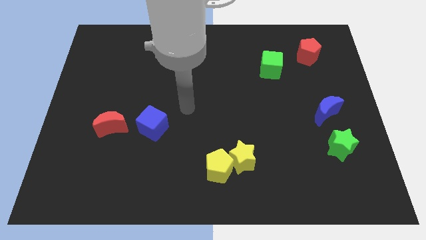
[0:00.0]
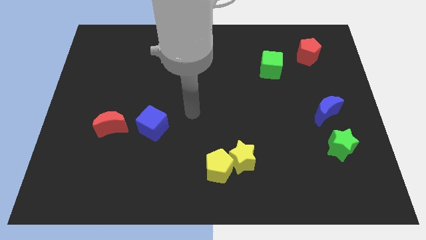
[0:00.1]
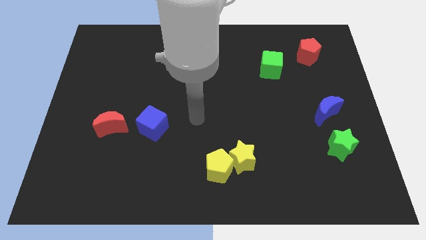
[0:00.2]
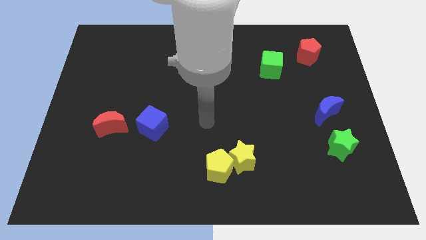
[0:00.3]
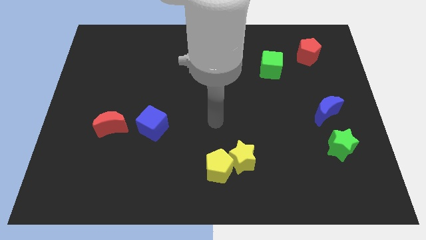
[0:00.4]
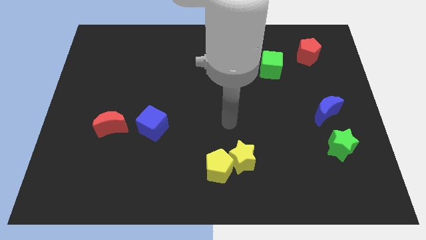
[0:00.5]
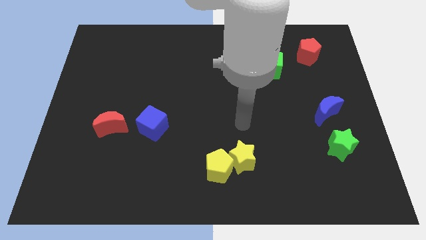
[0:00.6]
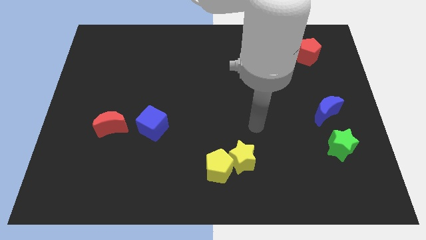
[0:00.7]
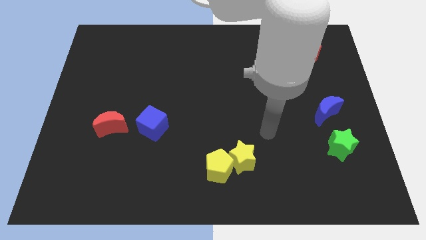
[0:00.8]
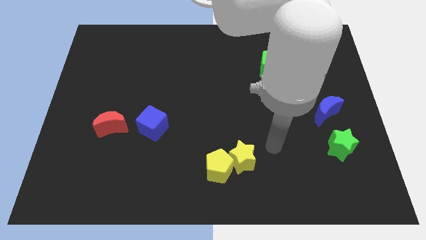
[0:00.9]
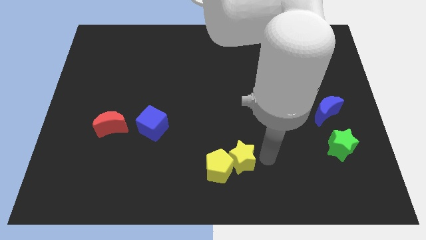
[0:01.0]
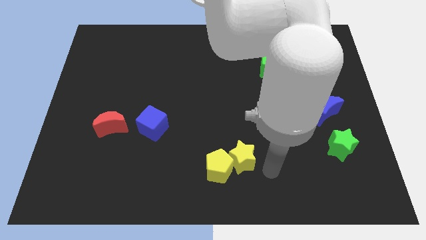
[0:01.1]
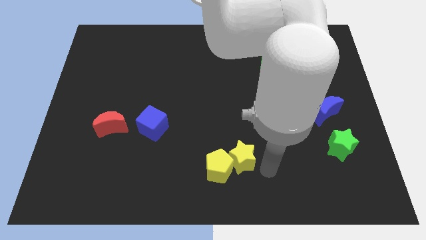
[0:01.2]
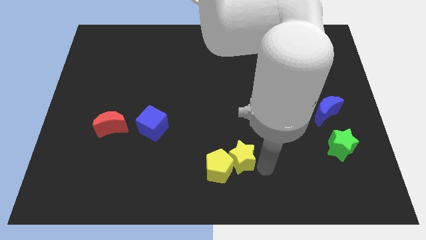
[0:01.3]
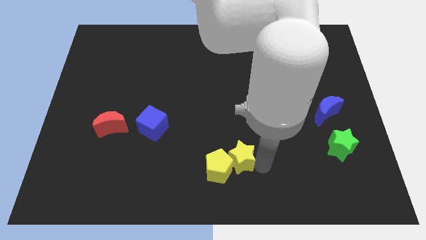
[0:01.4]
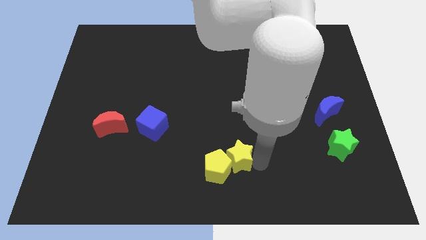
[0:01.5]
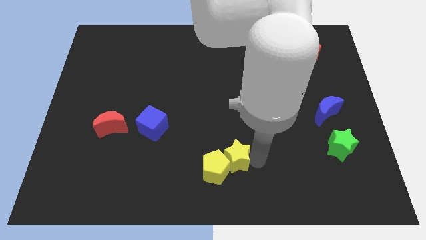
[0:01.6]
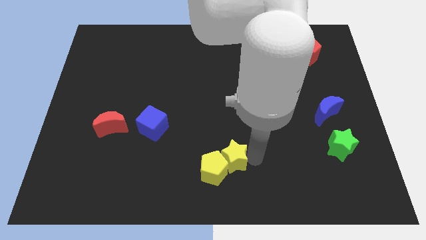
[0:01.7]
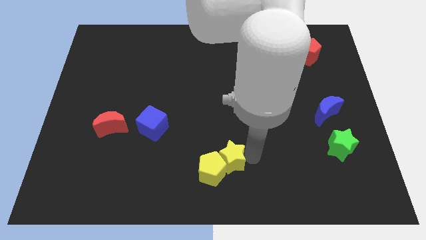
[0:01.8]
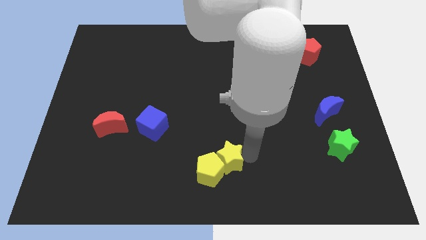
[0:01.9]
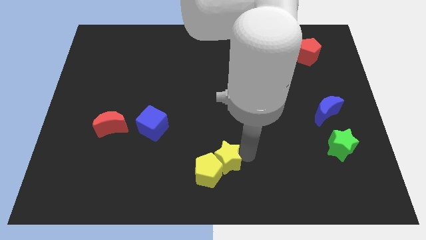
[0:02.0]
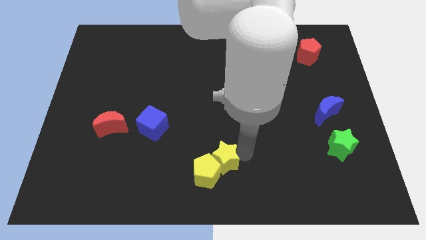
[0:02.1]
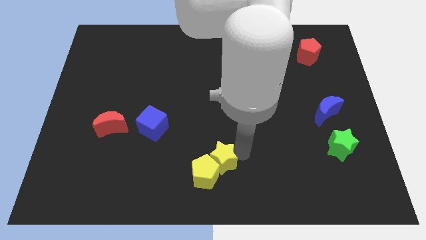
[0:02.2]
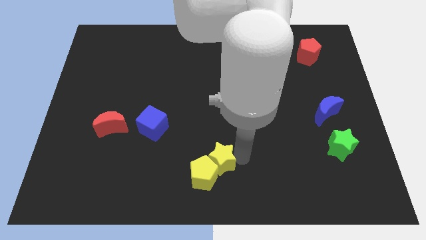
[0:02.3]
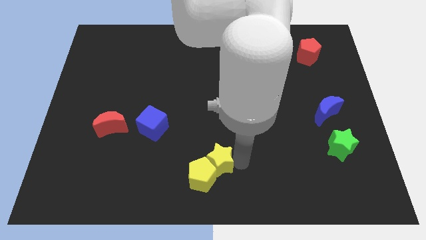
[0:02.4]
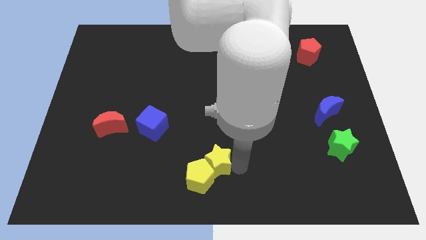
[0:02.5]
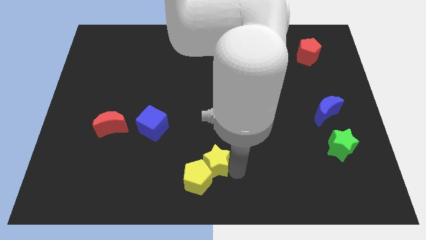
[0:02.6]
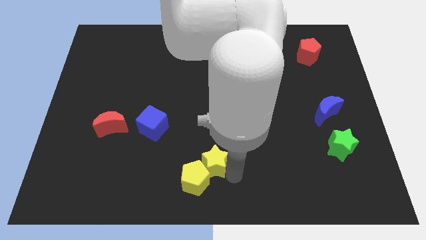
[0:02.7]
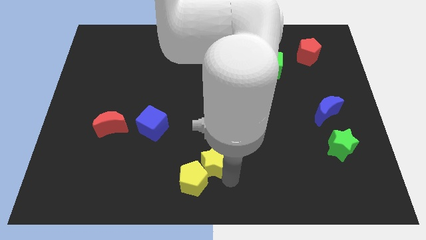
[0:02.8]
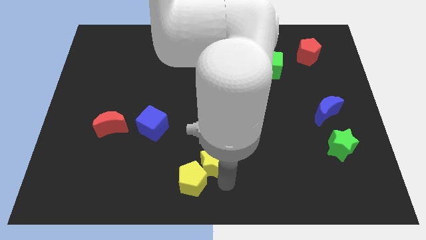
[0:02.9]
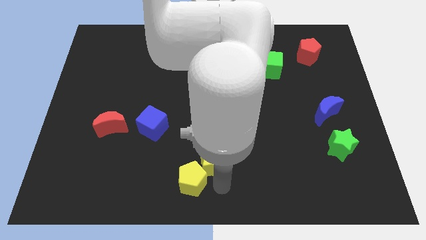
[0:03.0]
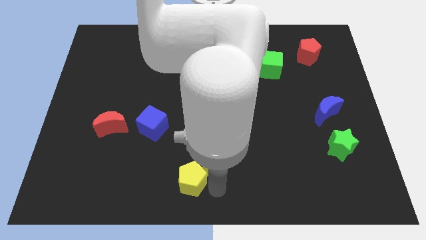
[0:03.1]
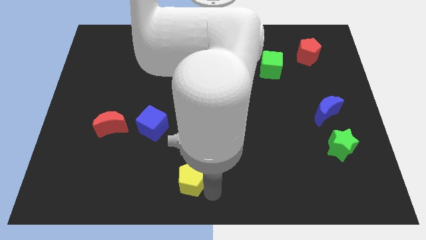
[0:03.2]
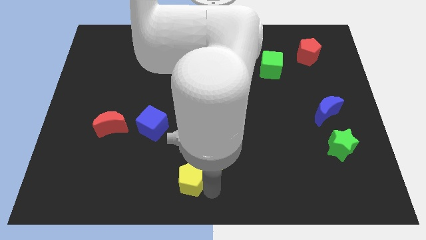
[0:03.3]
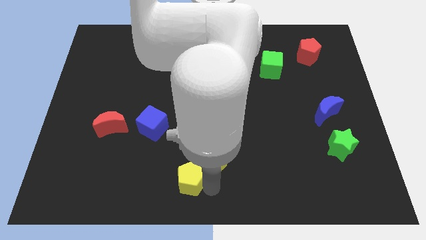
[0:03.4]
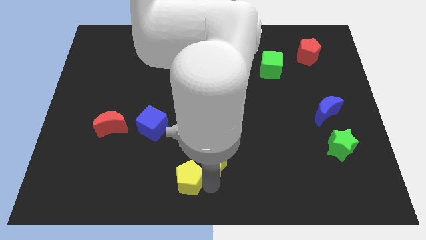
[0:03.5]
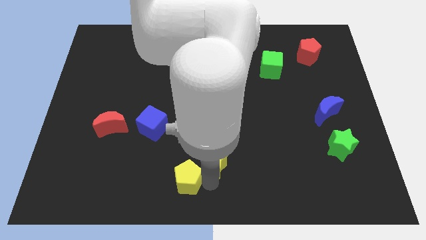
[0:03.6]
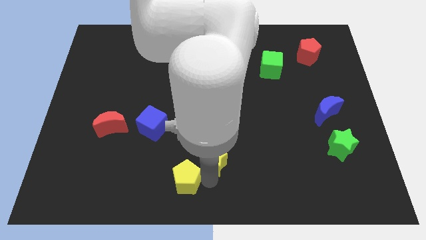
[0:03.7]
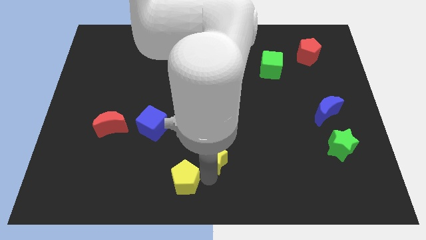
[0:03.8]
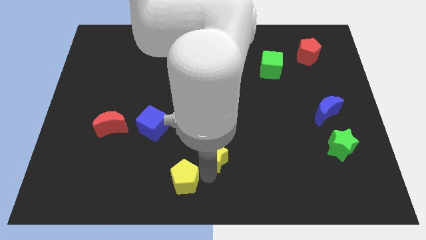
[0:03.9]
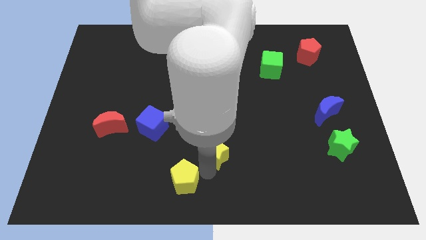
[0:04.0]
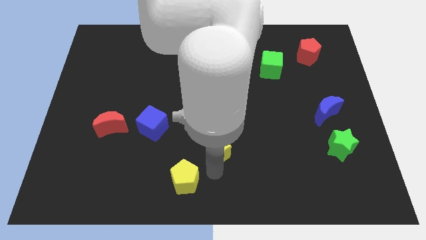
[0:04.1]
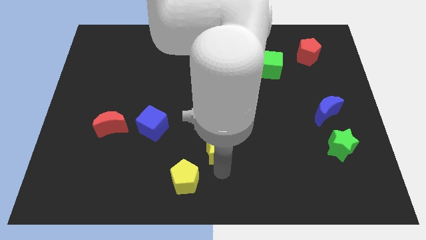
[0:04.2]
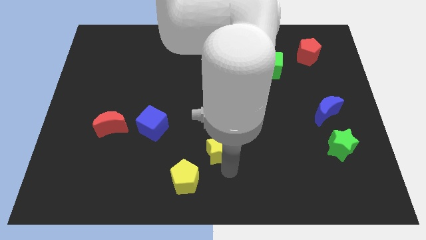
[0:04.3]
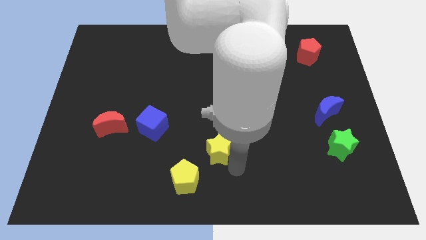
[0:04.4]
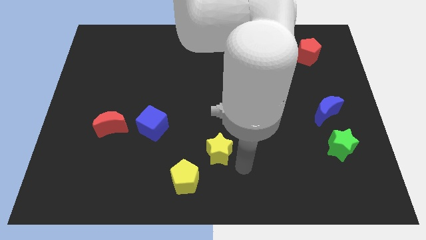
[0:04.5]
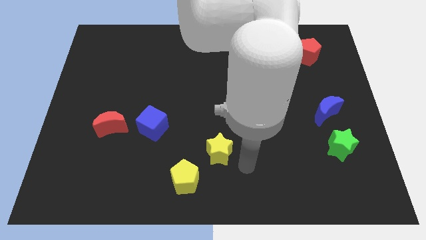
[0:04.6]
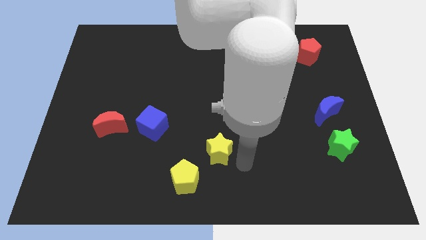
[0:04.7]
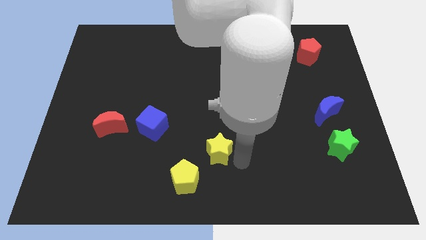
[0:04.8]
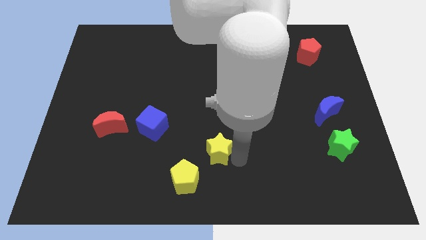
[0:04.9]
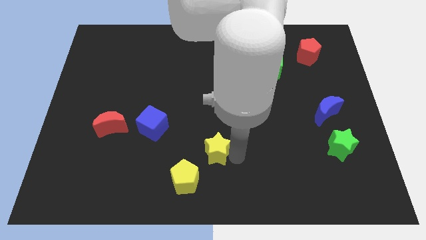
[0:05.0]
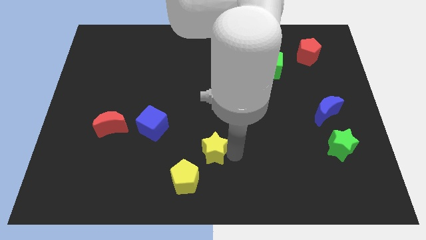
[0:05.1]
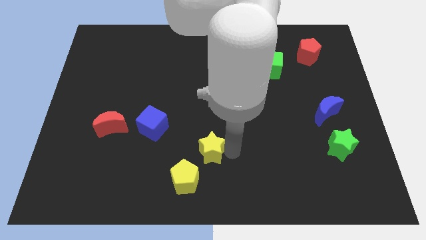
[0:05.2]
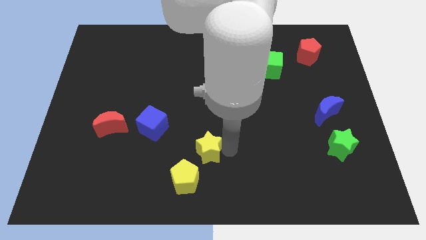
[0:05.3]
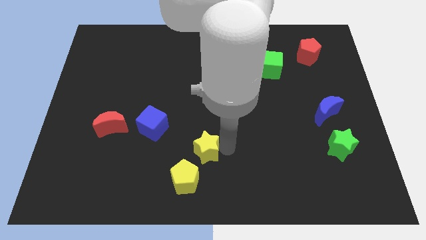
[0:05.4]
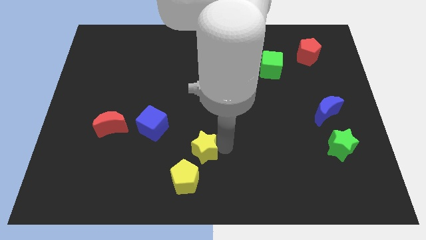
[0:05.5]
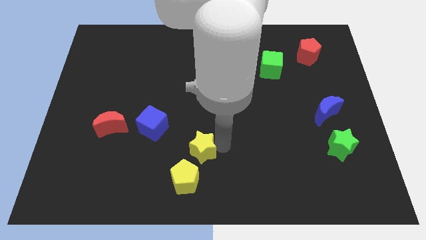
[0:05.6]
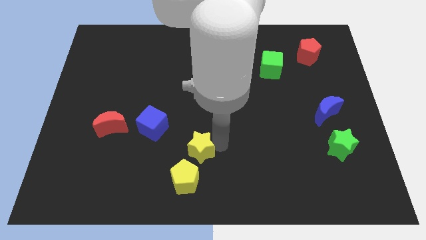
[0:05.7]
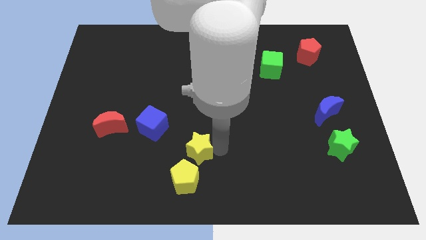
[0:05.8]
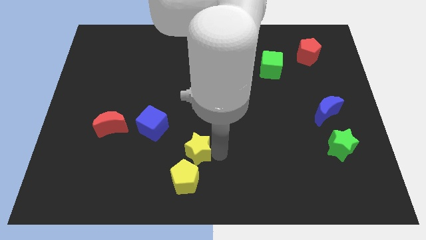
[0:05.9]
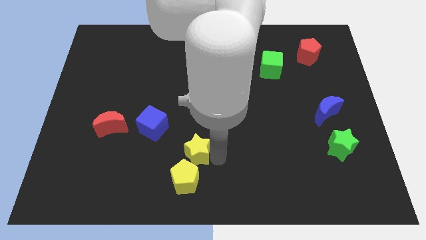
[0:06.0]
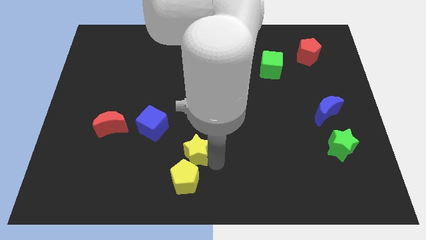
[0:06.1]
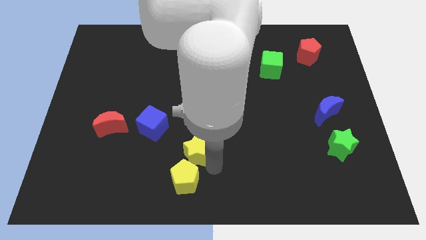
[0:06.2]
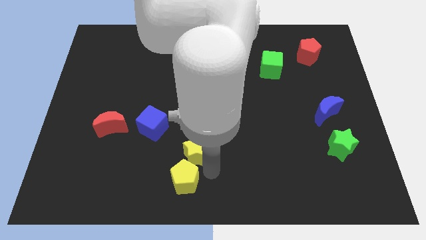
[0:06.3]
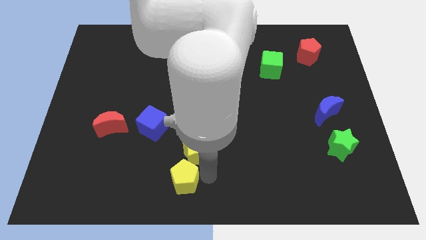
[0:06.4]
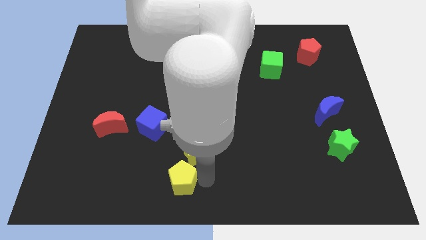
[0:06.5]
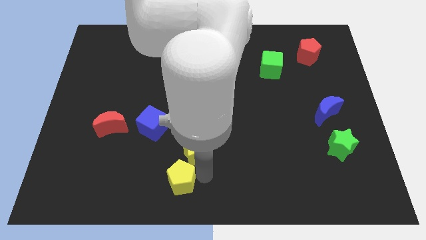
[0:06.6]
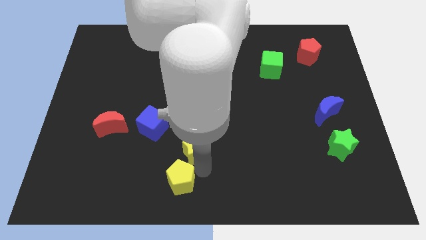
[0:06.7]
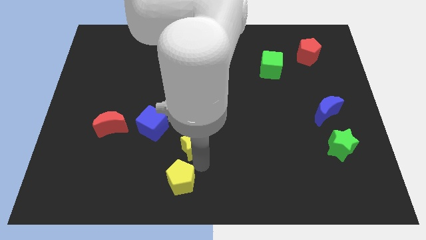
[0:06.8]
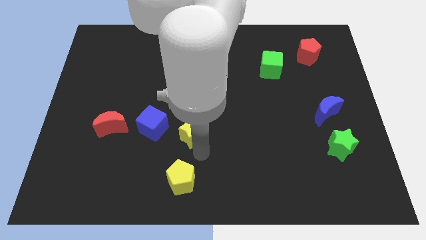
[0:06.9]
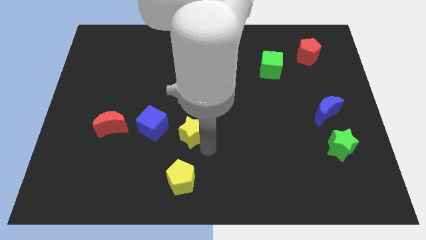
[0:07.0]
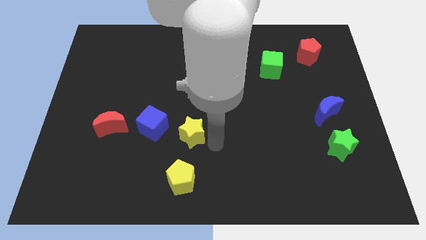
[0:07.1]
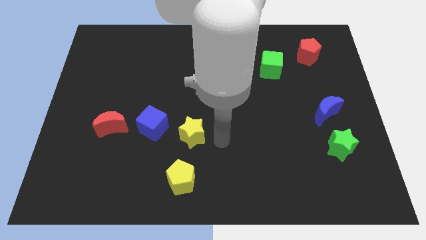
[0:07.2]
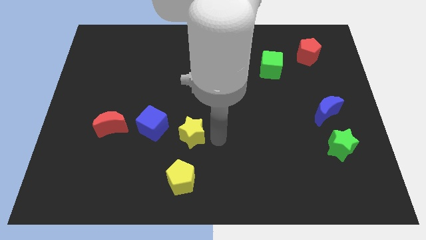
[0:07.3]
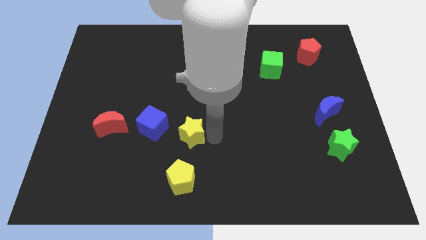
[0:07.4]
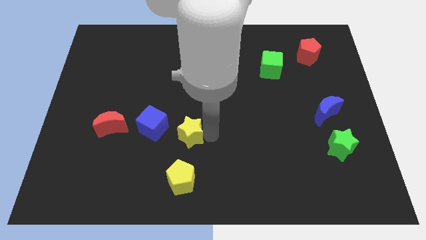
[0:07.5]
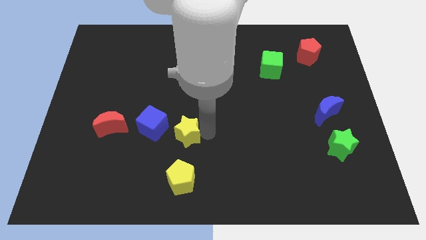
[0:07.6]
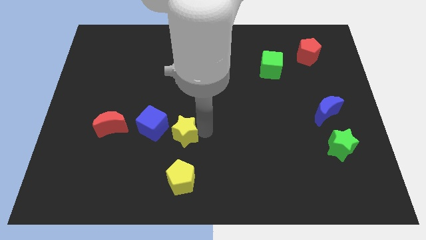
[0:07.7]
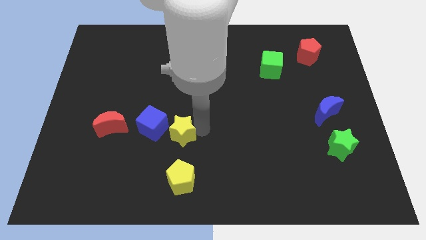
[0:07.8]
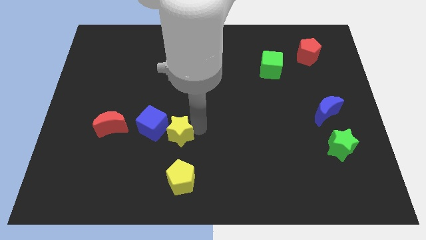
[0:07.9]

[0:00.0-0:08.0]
put the yellow star just right of the red moon
